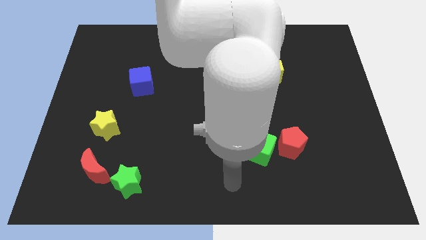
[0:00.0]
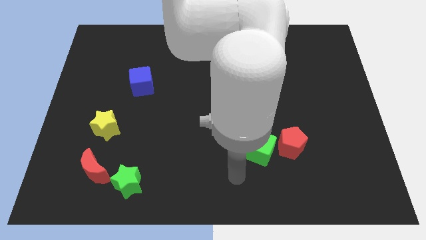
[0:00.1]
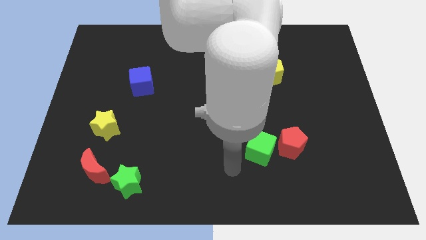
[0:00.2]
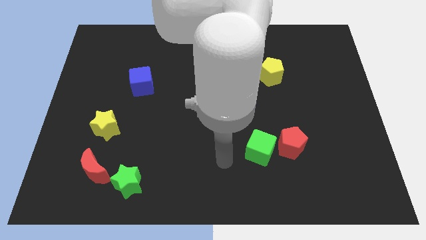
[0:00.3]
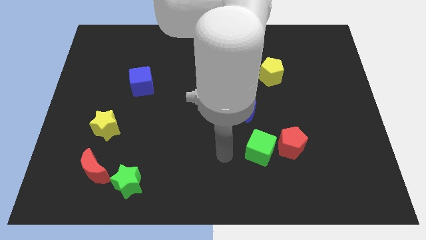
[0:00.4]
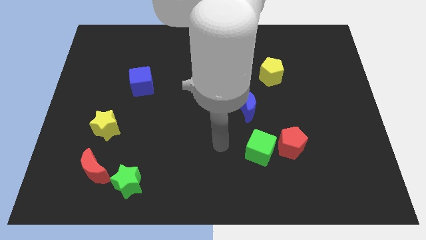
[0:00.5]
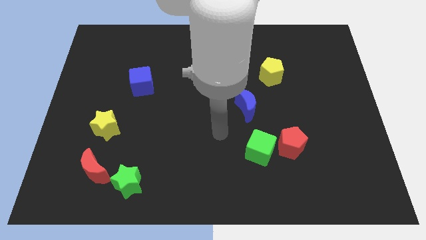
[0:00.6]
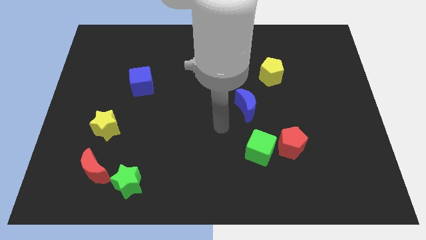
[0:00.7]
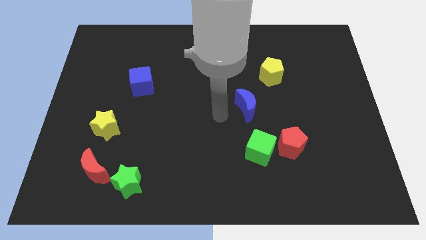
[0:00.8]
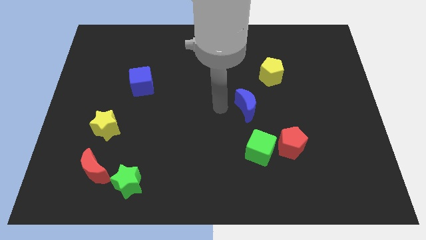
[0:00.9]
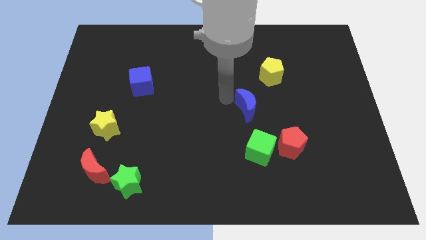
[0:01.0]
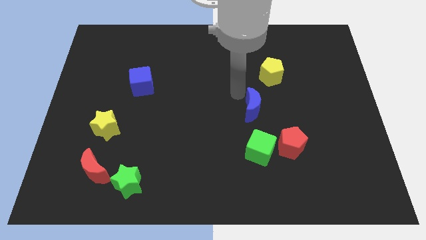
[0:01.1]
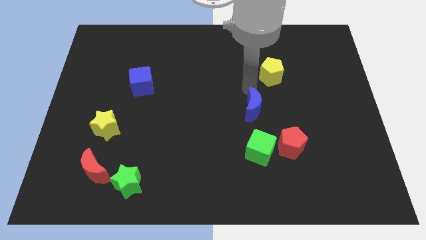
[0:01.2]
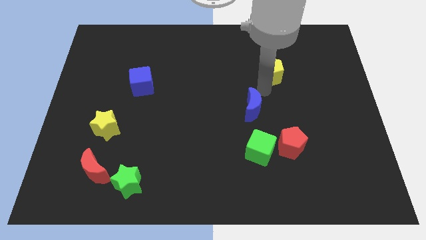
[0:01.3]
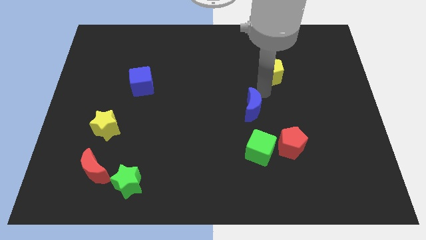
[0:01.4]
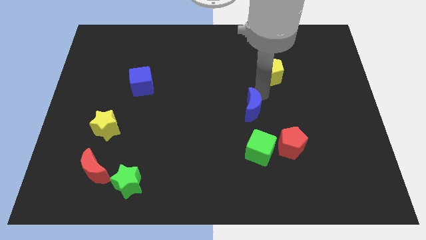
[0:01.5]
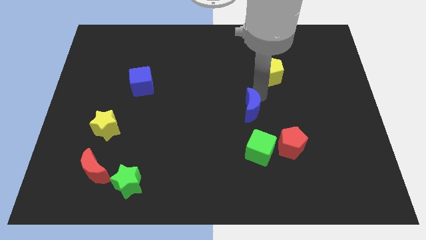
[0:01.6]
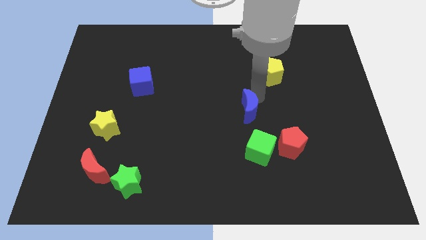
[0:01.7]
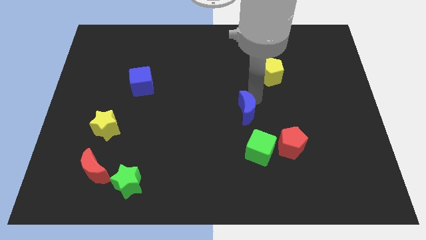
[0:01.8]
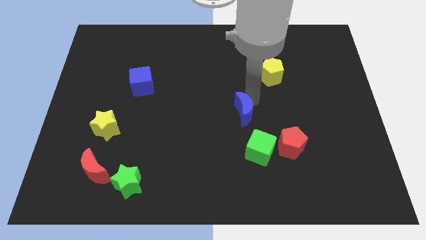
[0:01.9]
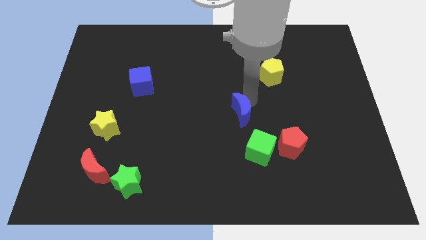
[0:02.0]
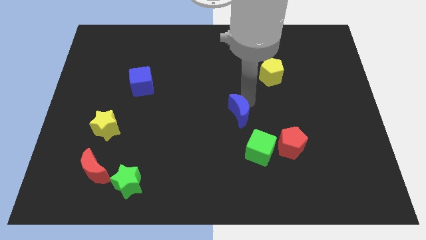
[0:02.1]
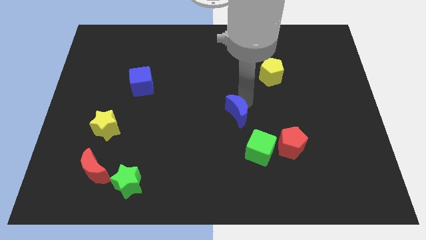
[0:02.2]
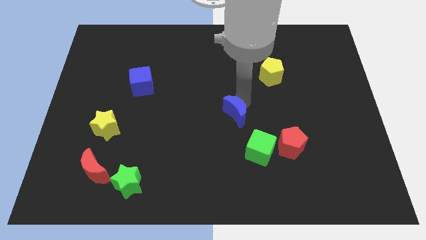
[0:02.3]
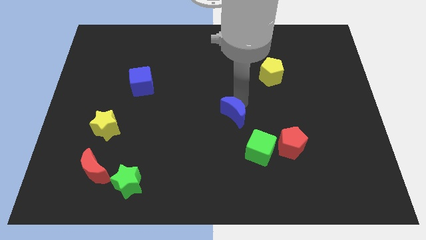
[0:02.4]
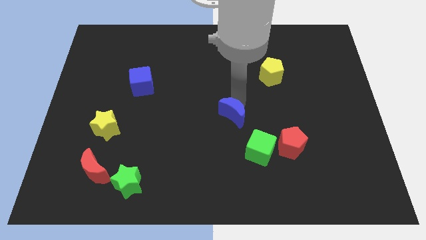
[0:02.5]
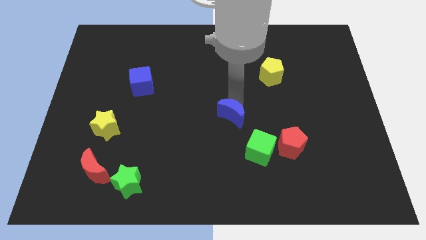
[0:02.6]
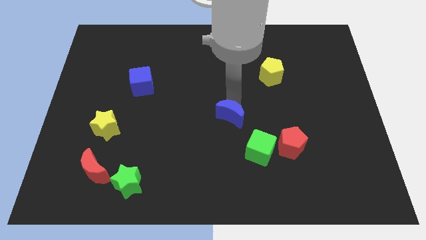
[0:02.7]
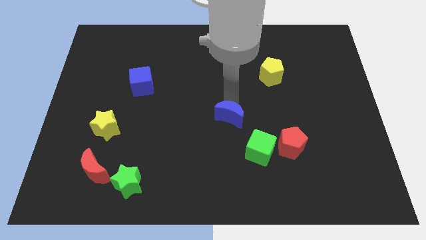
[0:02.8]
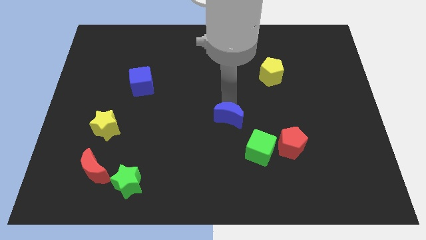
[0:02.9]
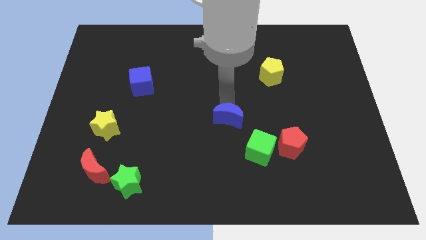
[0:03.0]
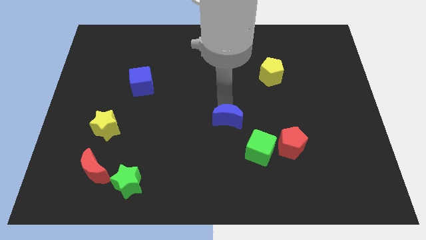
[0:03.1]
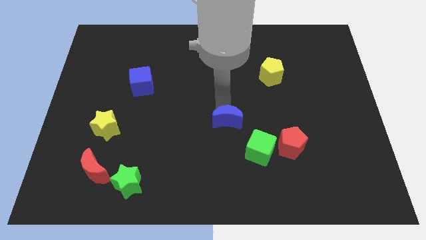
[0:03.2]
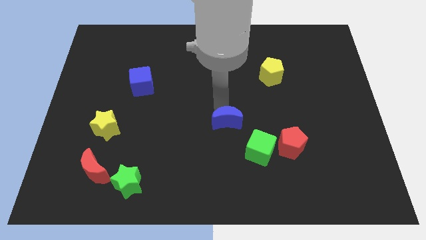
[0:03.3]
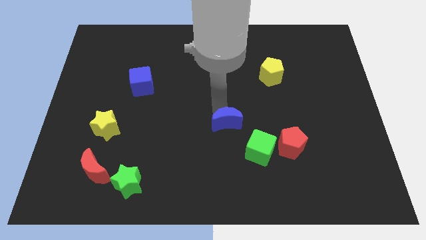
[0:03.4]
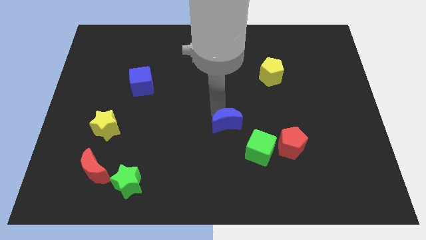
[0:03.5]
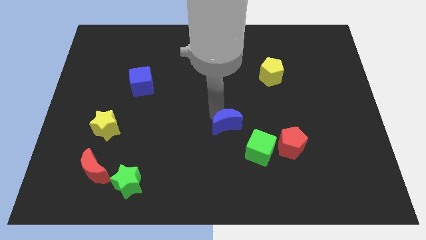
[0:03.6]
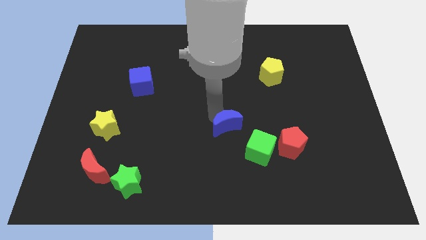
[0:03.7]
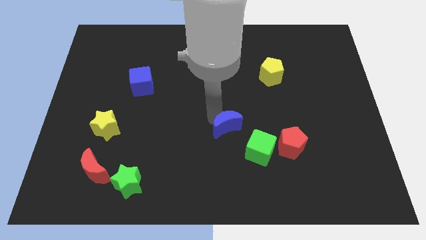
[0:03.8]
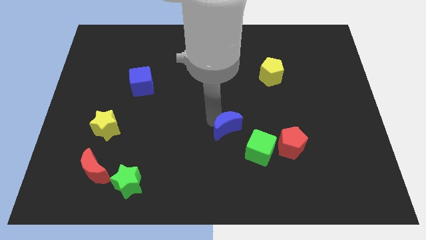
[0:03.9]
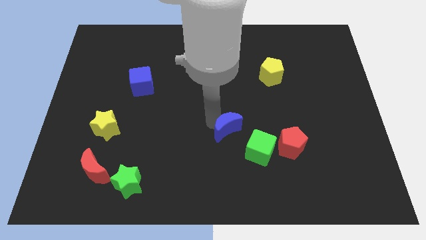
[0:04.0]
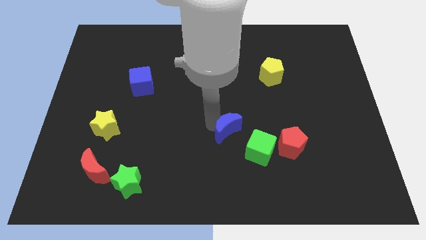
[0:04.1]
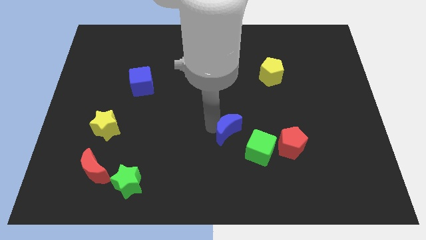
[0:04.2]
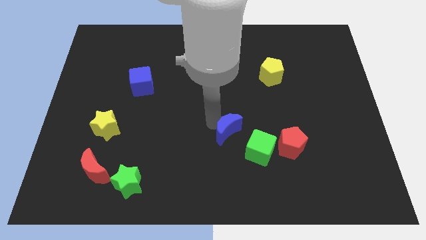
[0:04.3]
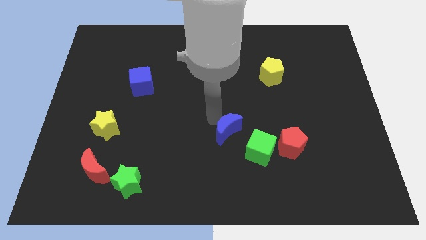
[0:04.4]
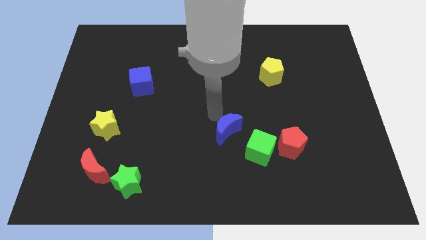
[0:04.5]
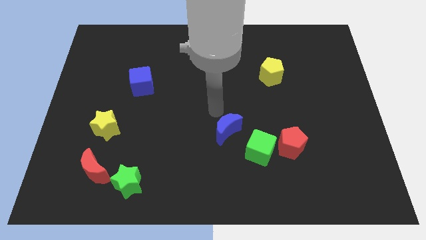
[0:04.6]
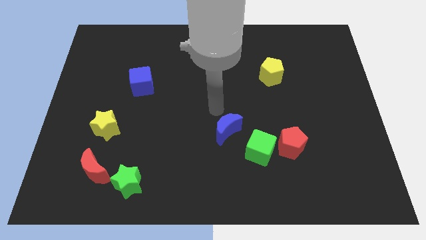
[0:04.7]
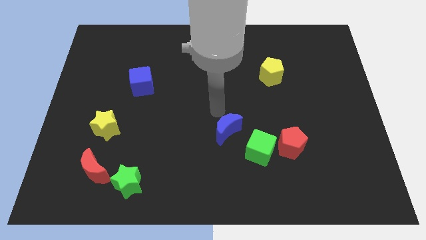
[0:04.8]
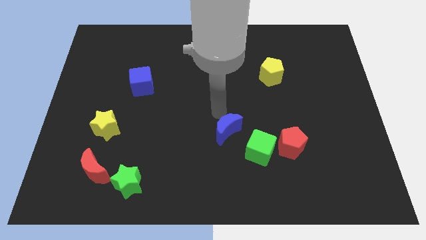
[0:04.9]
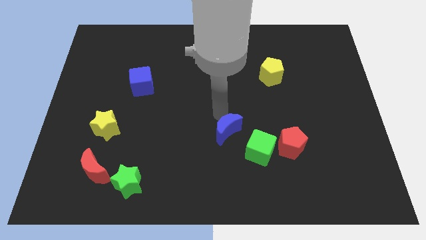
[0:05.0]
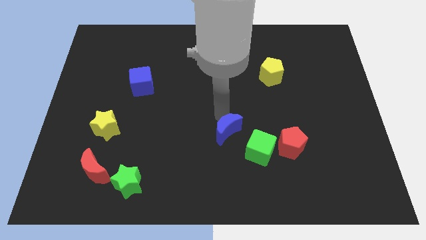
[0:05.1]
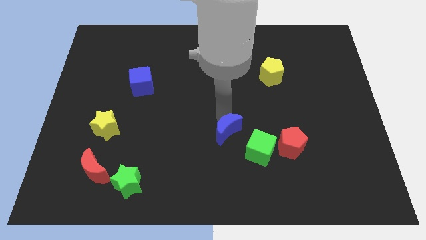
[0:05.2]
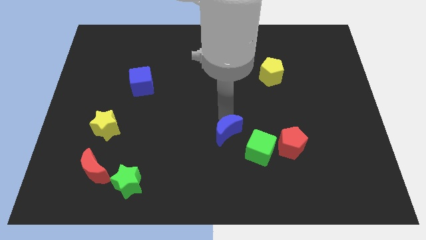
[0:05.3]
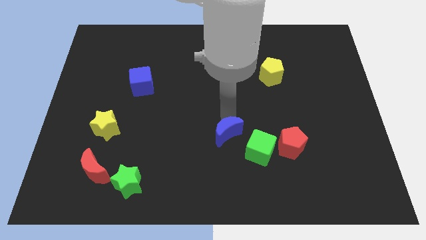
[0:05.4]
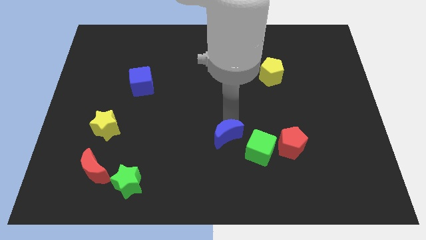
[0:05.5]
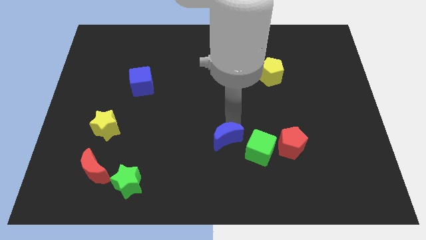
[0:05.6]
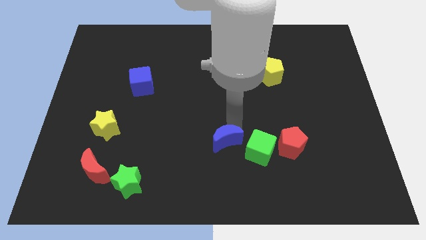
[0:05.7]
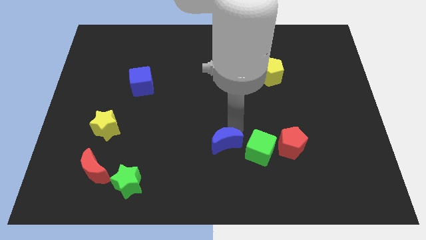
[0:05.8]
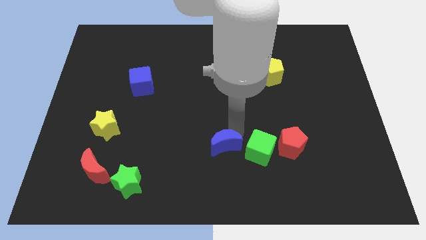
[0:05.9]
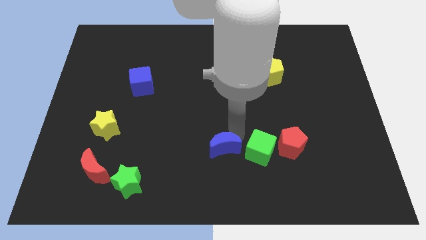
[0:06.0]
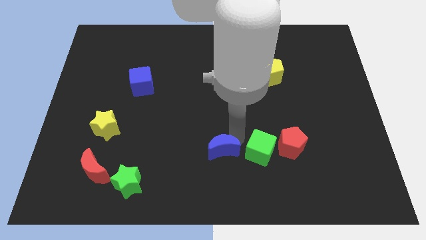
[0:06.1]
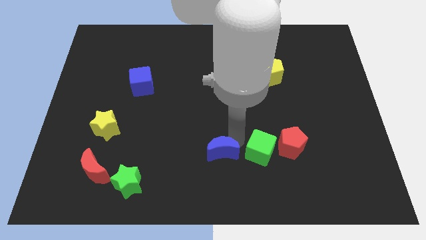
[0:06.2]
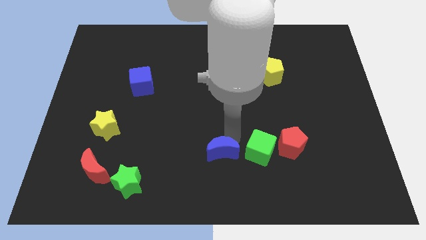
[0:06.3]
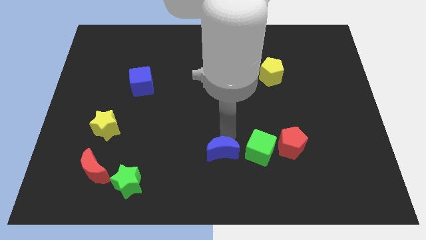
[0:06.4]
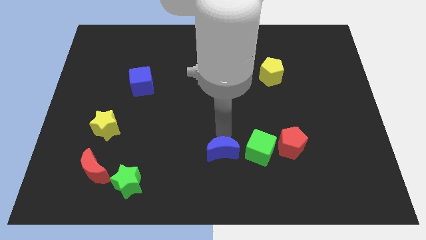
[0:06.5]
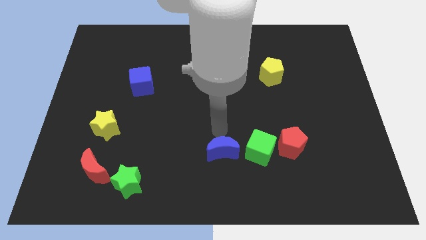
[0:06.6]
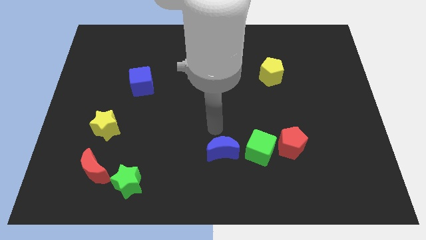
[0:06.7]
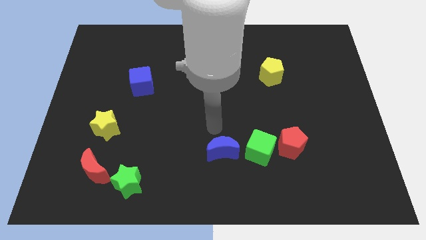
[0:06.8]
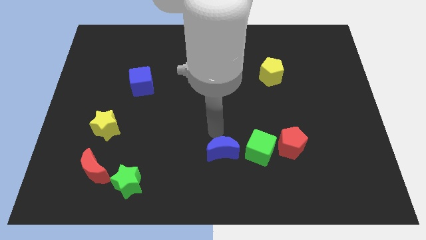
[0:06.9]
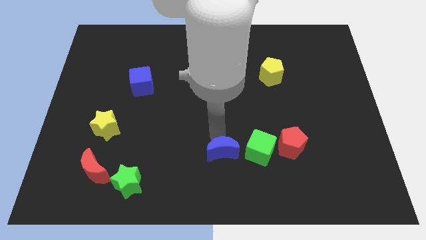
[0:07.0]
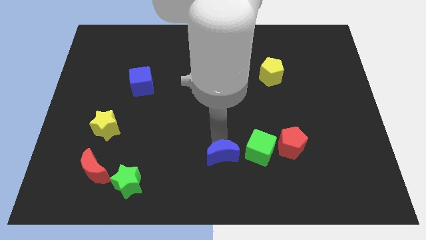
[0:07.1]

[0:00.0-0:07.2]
slide the blue moon to the bottom
